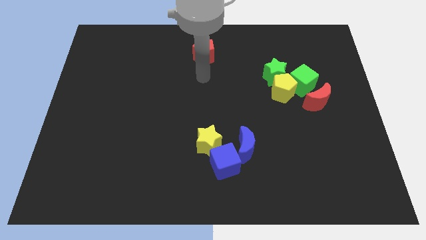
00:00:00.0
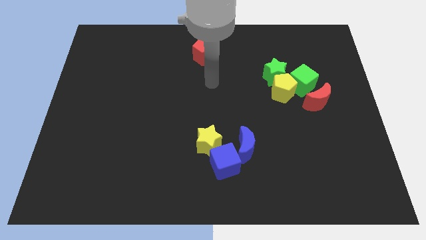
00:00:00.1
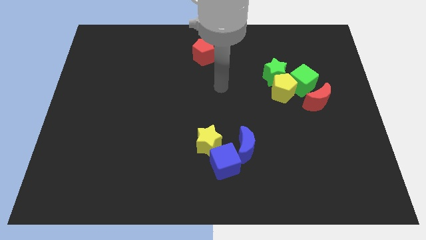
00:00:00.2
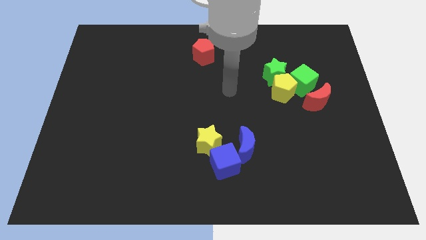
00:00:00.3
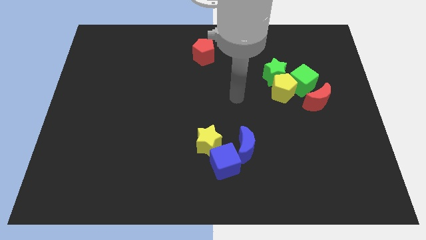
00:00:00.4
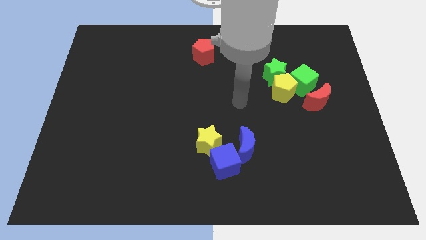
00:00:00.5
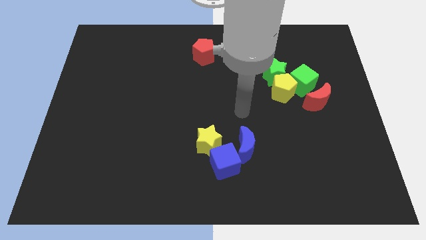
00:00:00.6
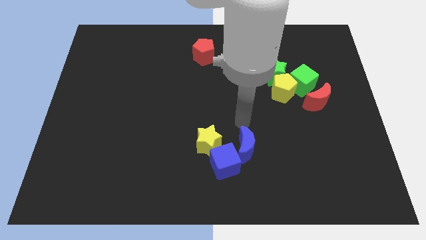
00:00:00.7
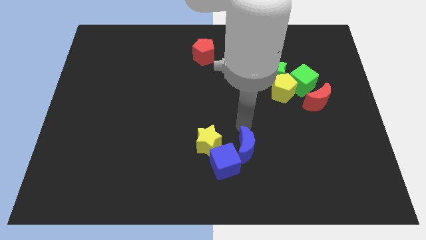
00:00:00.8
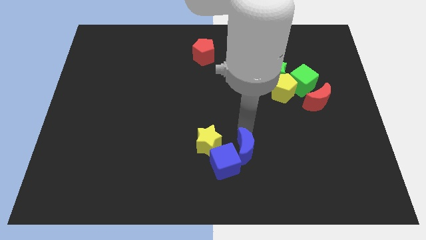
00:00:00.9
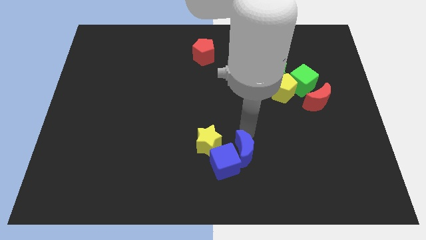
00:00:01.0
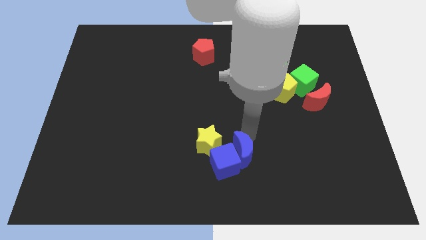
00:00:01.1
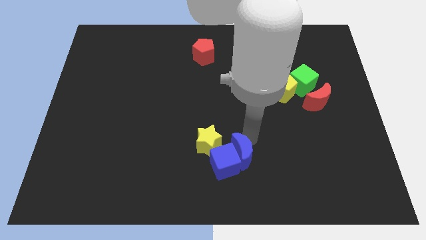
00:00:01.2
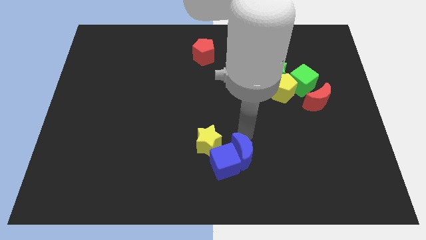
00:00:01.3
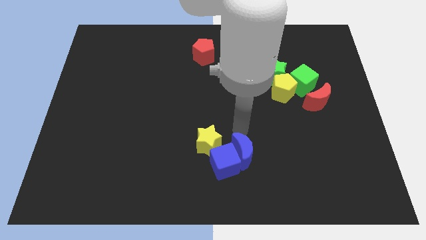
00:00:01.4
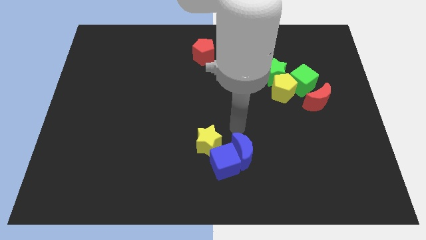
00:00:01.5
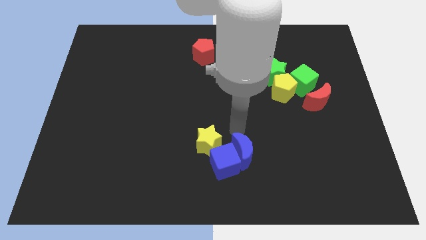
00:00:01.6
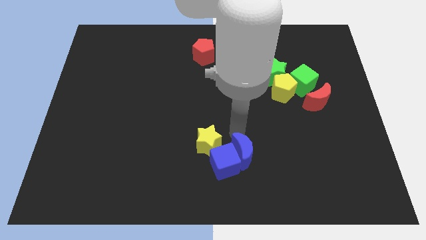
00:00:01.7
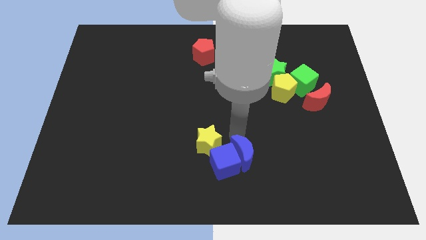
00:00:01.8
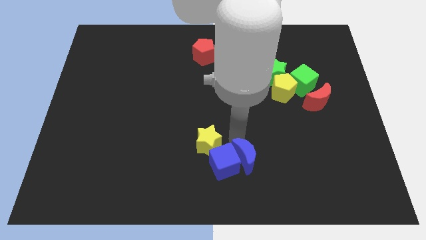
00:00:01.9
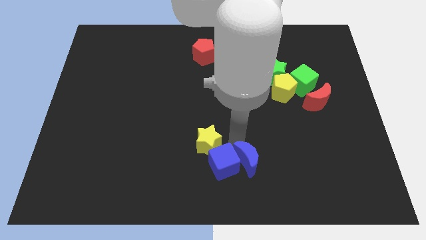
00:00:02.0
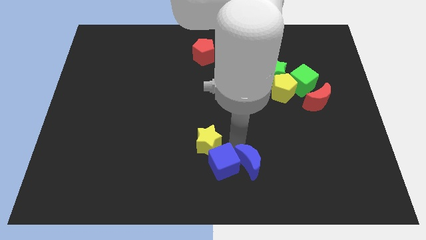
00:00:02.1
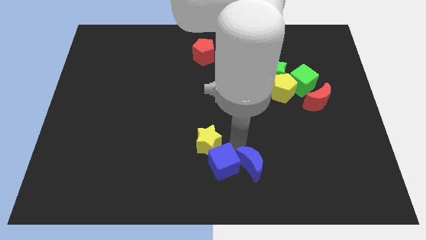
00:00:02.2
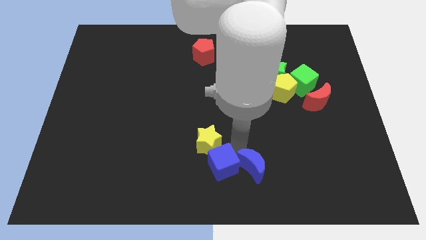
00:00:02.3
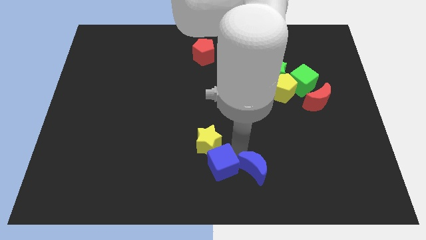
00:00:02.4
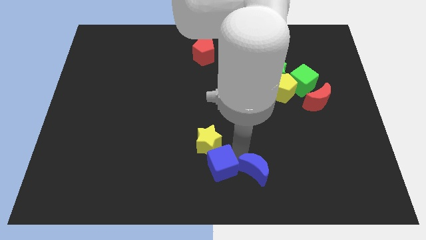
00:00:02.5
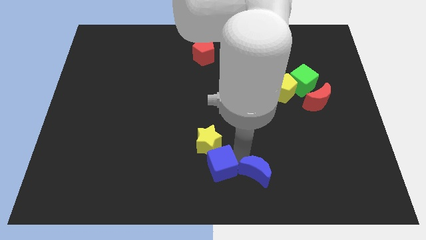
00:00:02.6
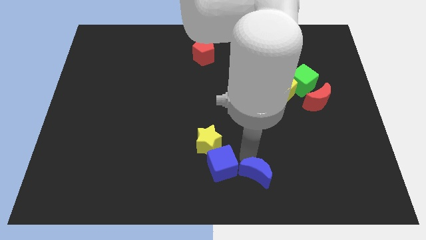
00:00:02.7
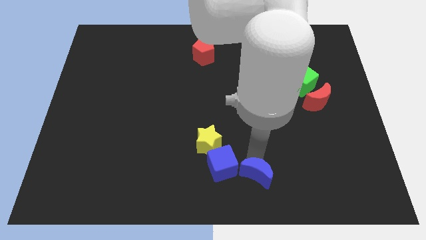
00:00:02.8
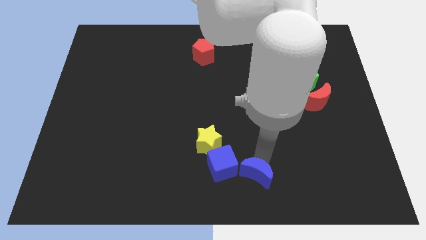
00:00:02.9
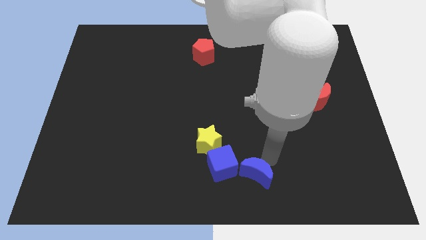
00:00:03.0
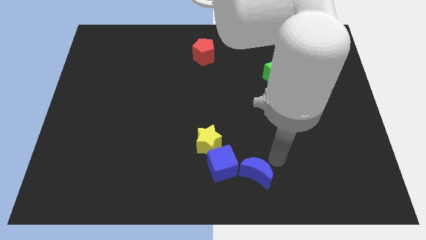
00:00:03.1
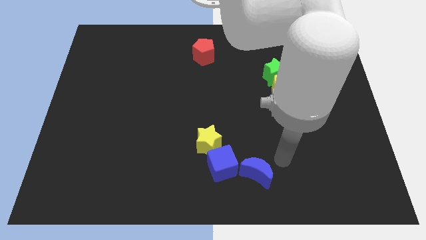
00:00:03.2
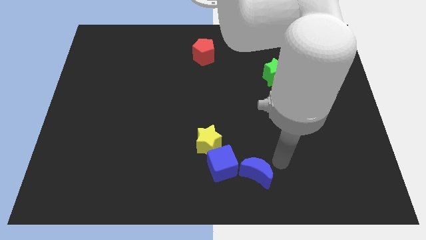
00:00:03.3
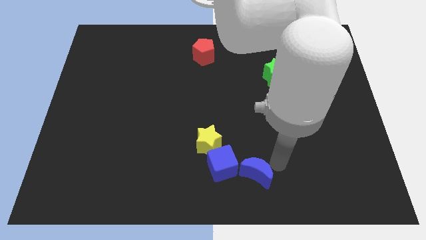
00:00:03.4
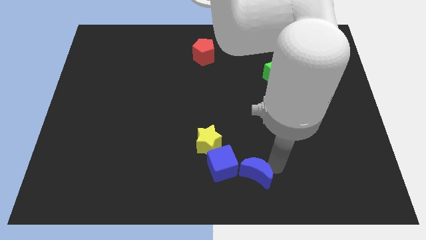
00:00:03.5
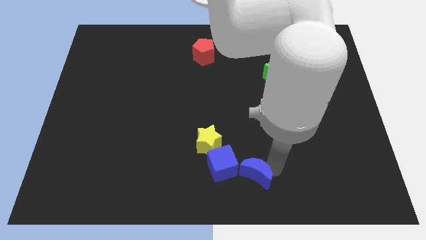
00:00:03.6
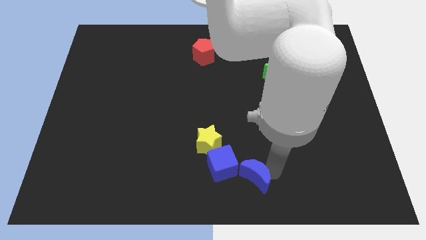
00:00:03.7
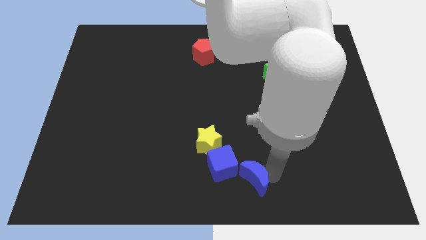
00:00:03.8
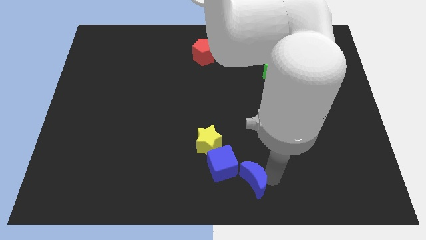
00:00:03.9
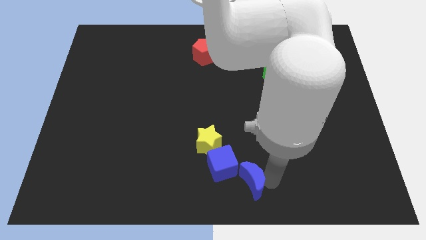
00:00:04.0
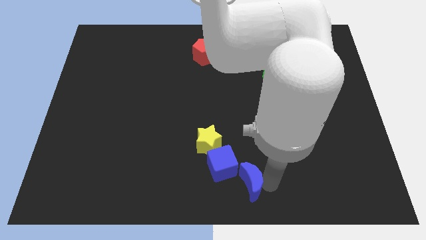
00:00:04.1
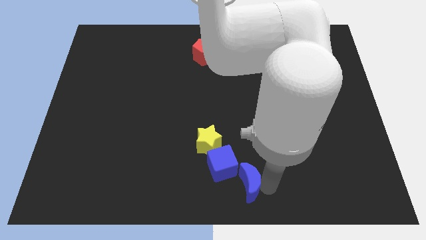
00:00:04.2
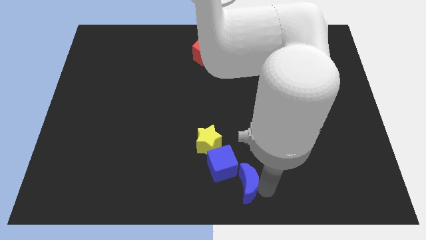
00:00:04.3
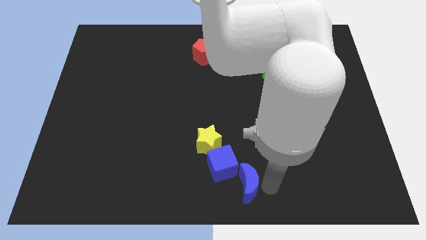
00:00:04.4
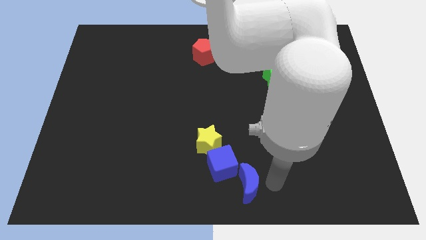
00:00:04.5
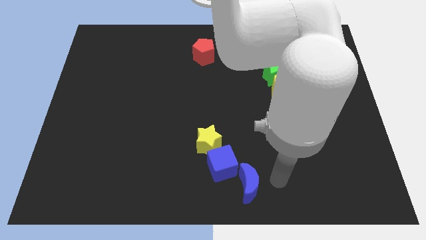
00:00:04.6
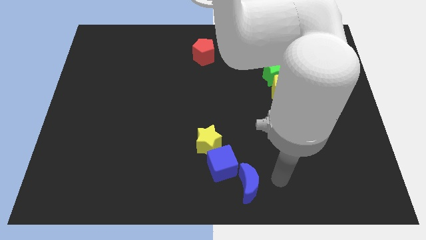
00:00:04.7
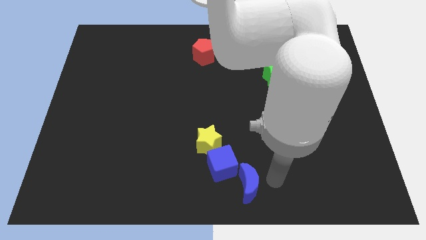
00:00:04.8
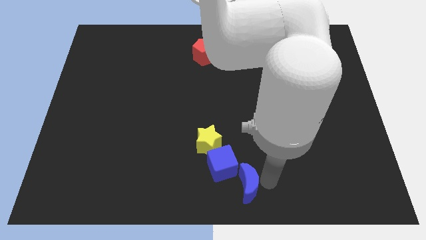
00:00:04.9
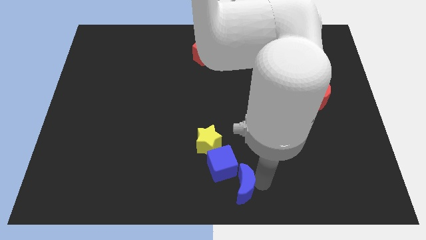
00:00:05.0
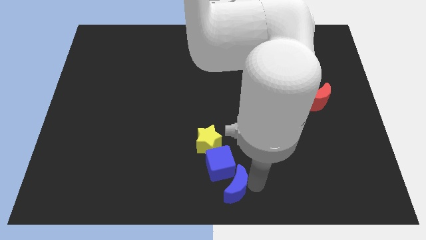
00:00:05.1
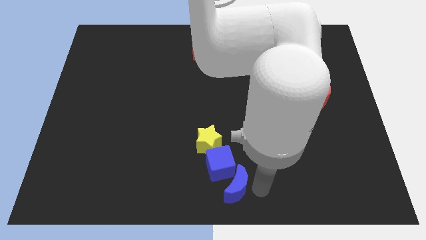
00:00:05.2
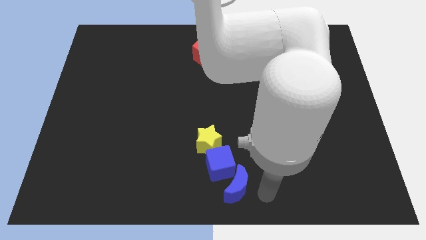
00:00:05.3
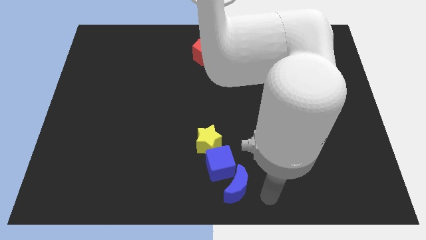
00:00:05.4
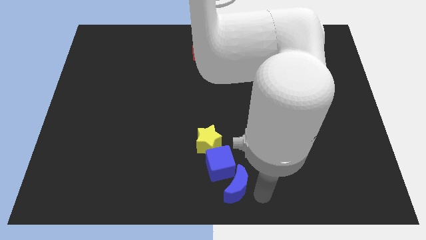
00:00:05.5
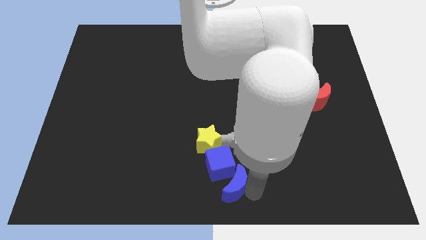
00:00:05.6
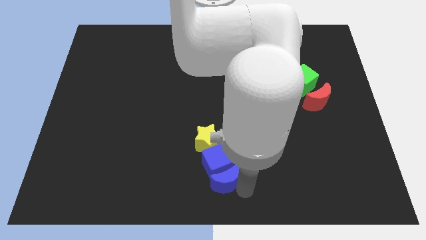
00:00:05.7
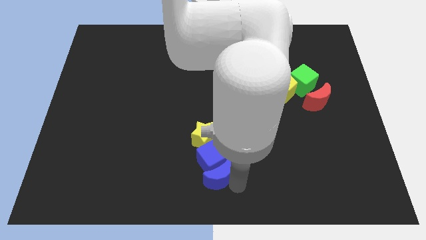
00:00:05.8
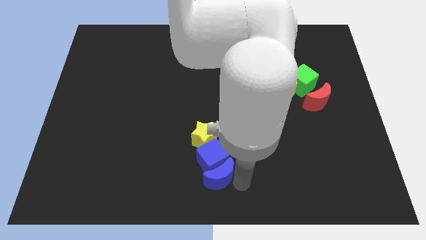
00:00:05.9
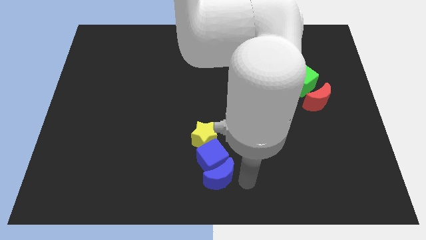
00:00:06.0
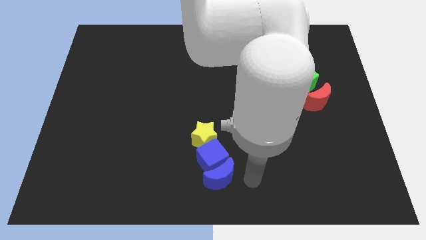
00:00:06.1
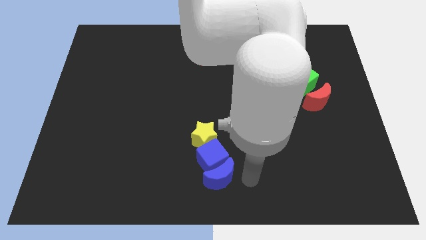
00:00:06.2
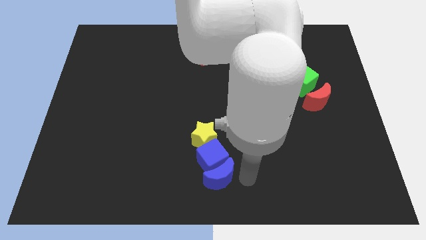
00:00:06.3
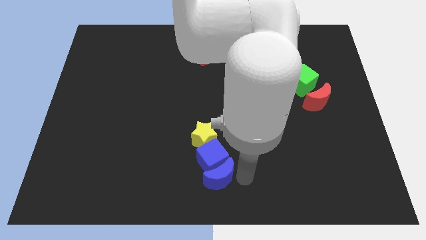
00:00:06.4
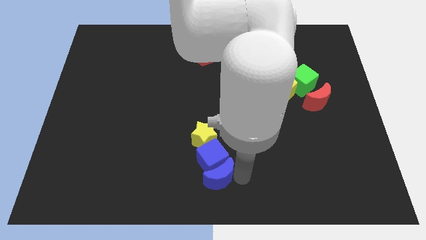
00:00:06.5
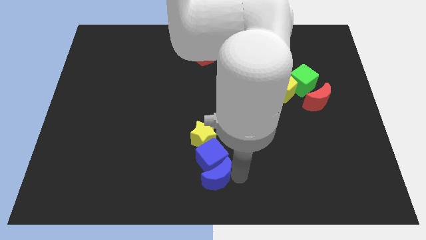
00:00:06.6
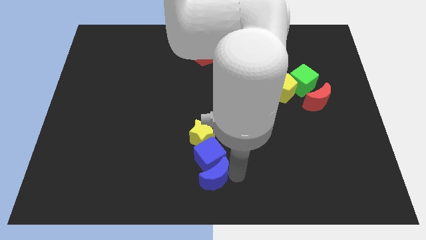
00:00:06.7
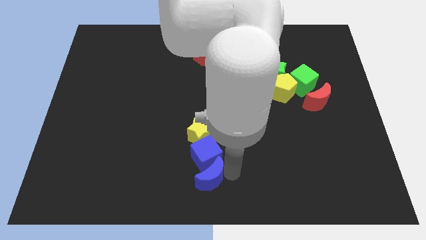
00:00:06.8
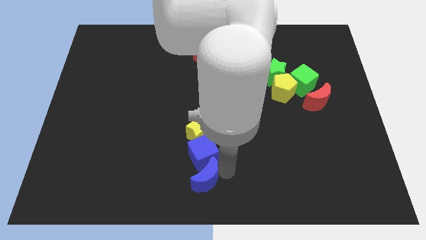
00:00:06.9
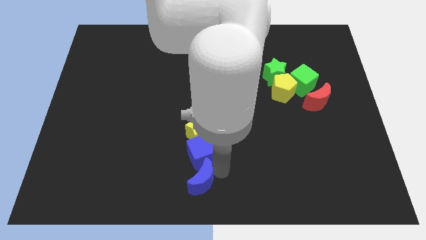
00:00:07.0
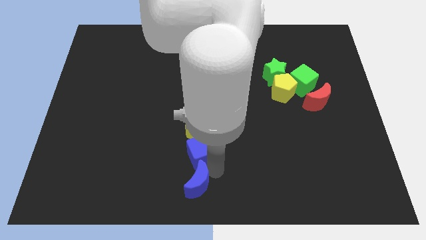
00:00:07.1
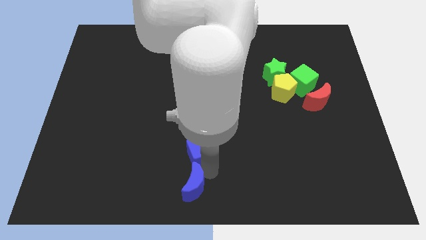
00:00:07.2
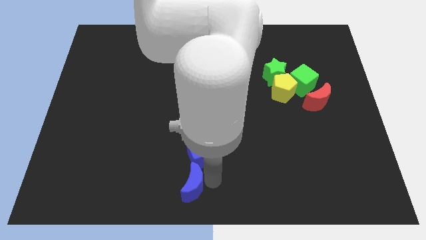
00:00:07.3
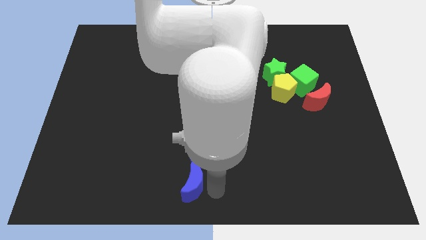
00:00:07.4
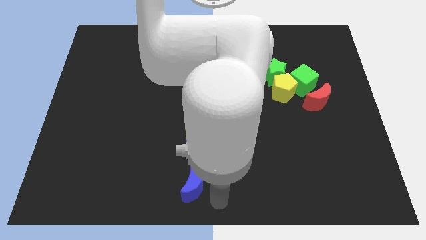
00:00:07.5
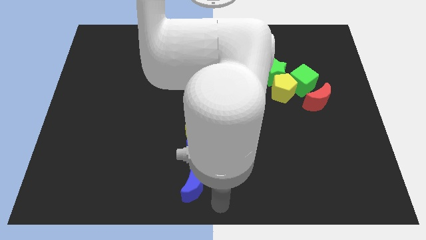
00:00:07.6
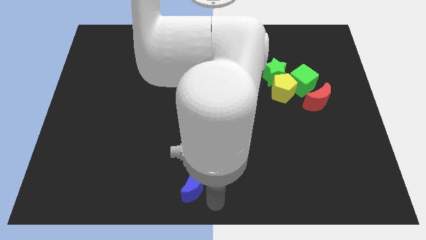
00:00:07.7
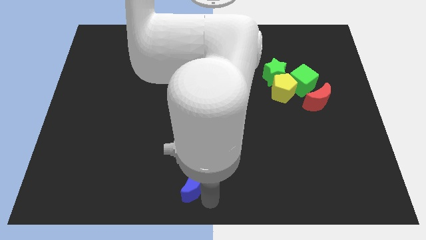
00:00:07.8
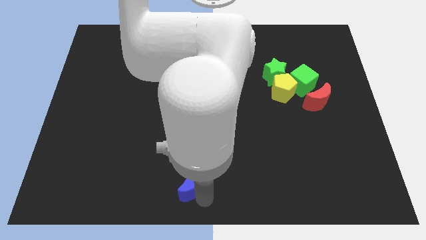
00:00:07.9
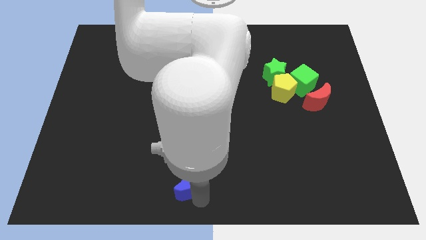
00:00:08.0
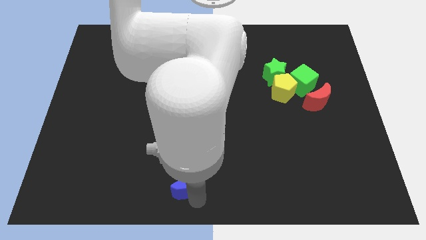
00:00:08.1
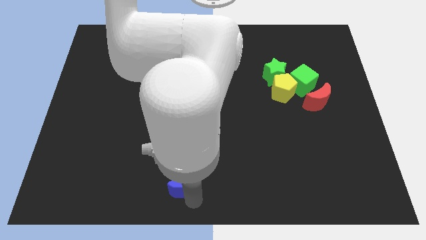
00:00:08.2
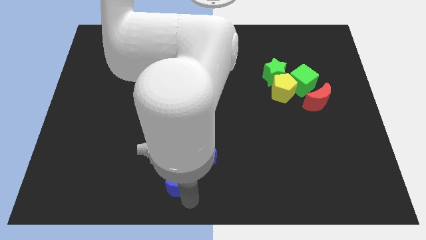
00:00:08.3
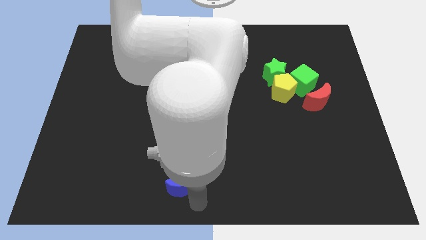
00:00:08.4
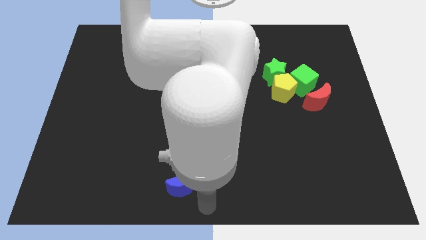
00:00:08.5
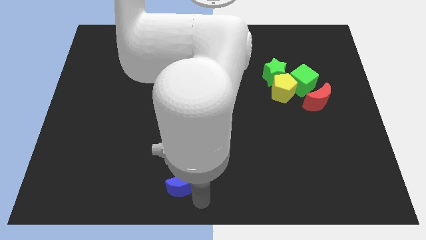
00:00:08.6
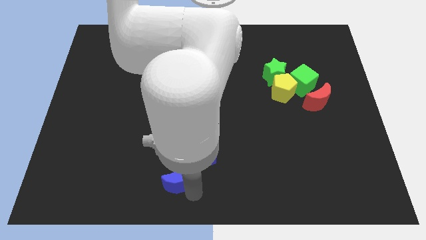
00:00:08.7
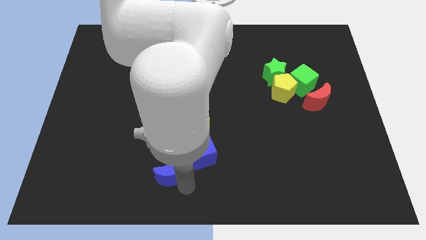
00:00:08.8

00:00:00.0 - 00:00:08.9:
put the blue moon to the left of the blue cube
